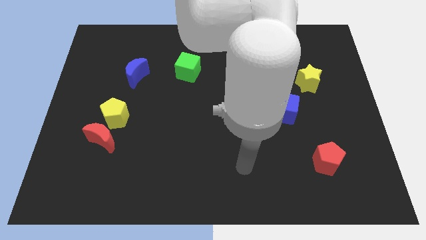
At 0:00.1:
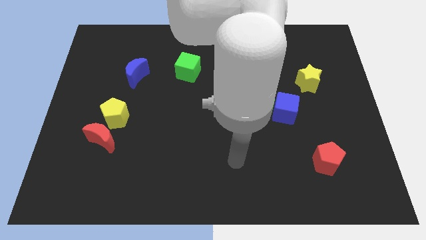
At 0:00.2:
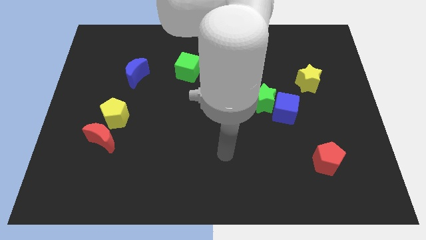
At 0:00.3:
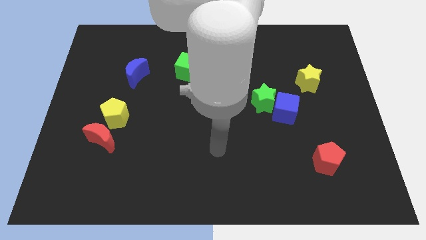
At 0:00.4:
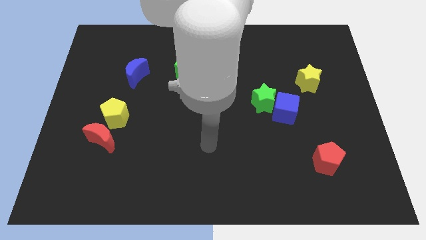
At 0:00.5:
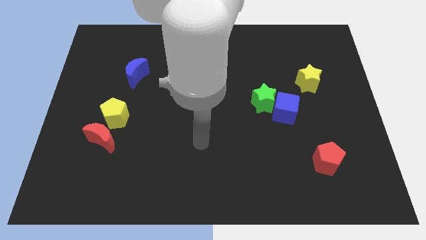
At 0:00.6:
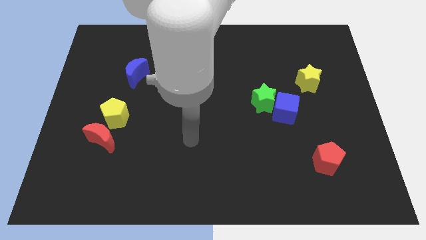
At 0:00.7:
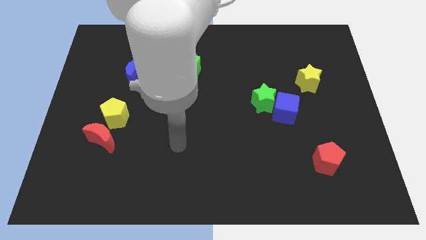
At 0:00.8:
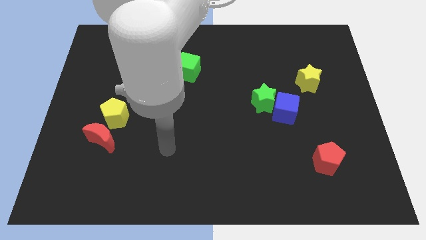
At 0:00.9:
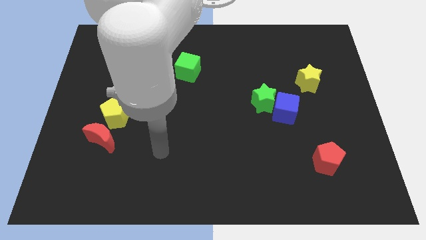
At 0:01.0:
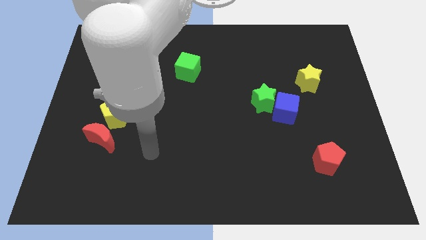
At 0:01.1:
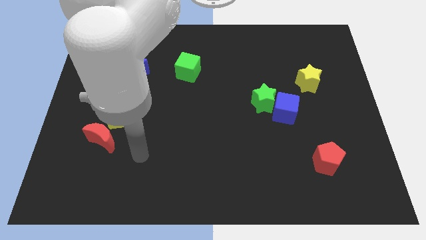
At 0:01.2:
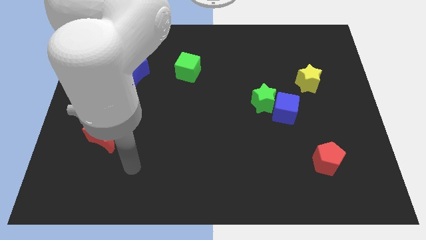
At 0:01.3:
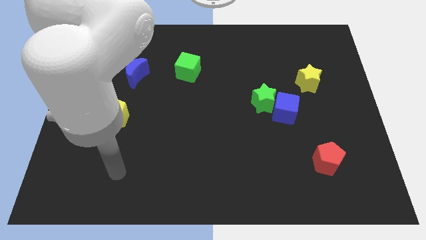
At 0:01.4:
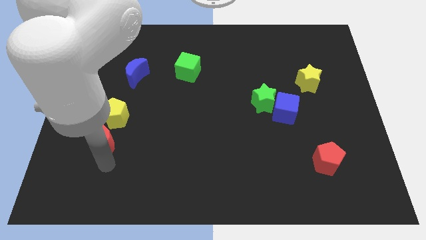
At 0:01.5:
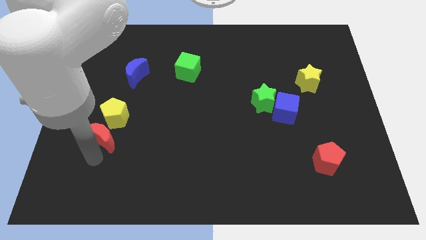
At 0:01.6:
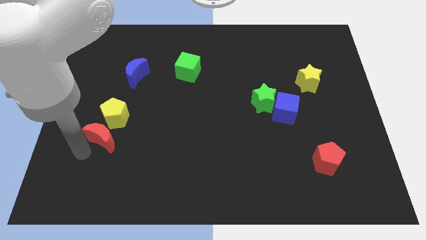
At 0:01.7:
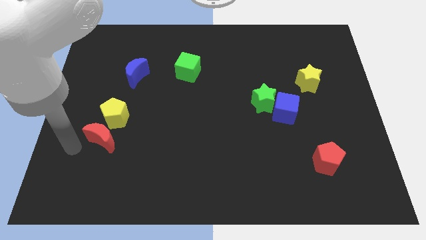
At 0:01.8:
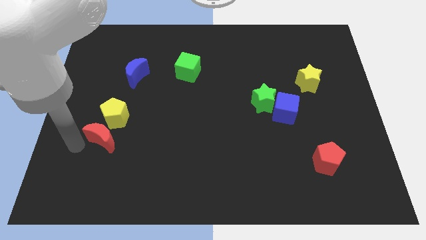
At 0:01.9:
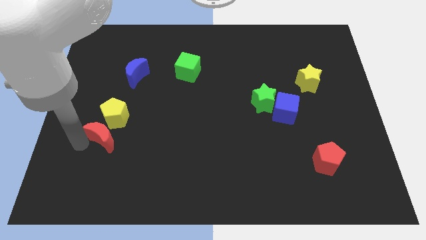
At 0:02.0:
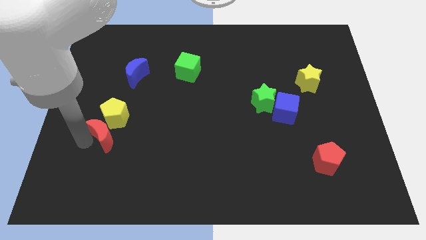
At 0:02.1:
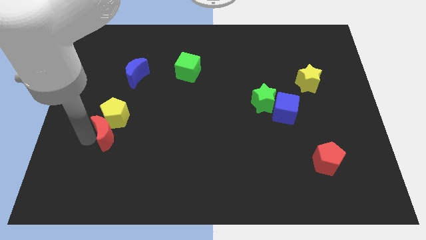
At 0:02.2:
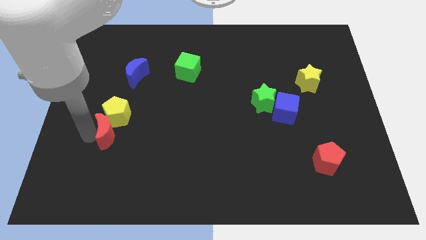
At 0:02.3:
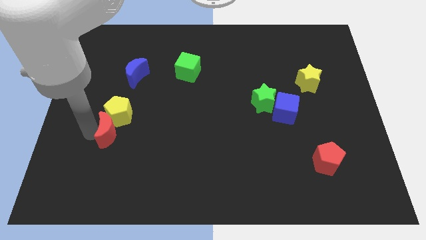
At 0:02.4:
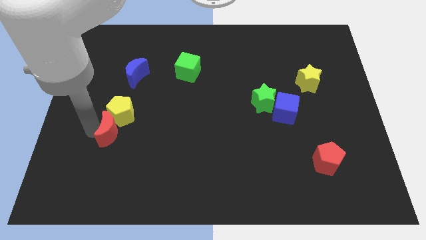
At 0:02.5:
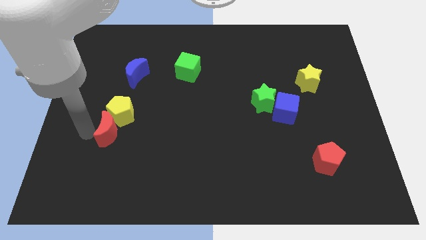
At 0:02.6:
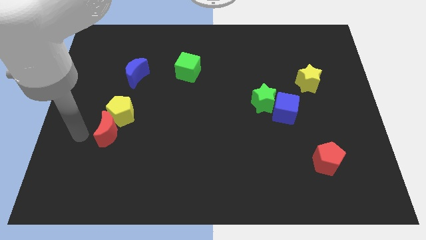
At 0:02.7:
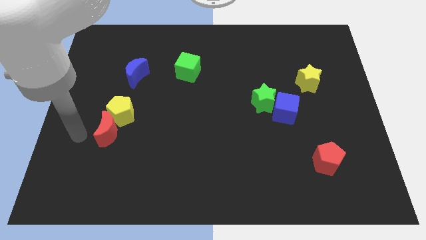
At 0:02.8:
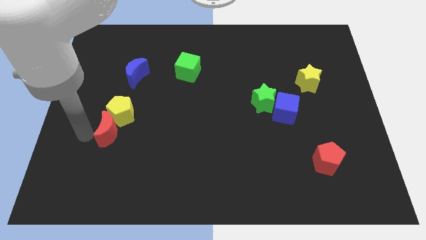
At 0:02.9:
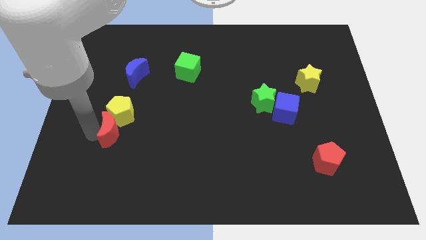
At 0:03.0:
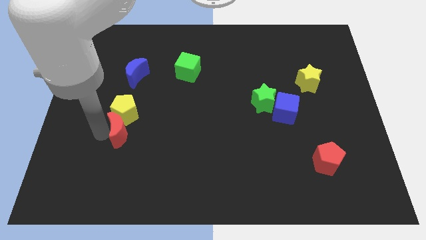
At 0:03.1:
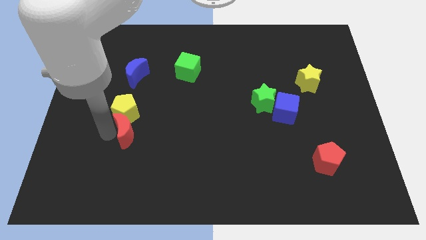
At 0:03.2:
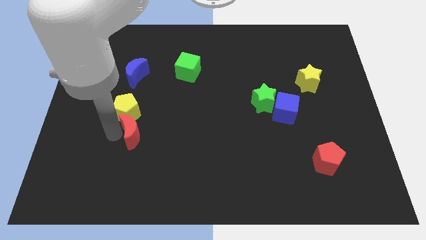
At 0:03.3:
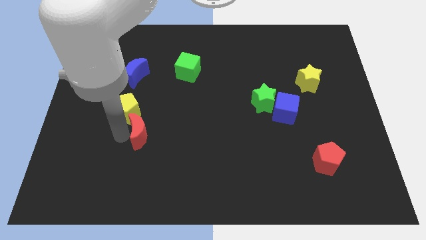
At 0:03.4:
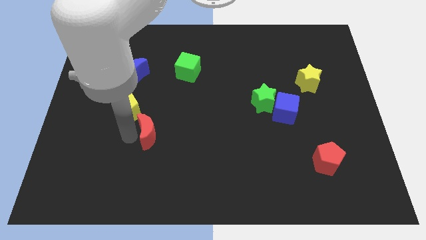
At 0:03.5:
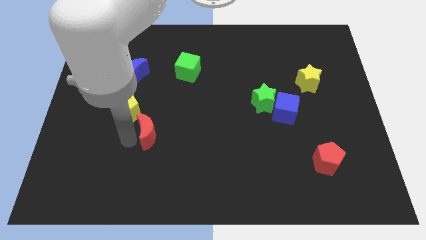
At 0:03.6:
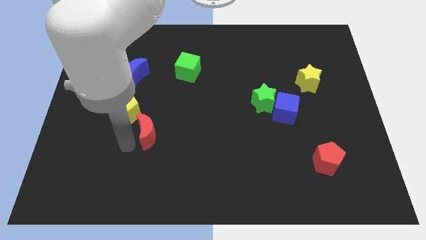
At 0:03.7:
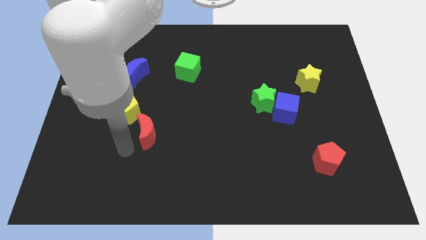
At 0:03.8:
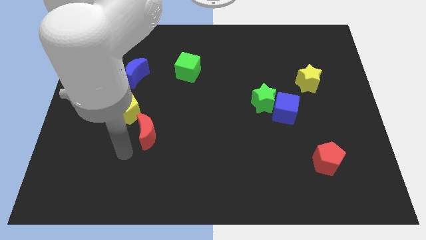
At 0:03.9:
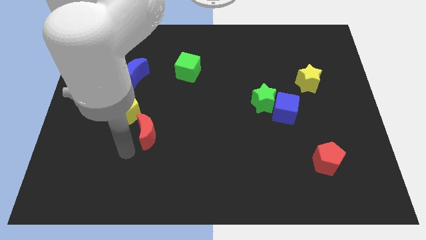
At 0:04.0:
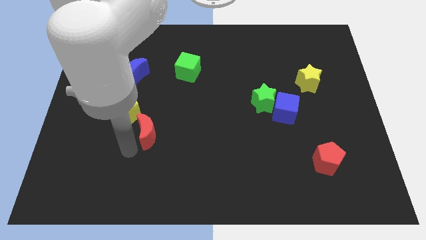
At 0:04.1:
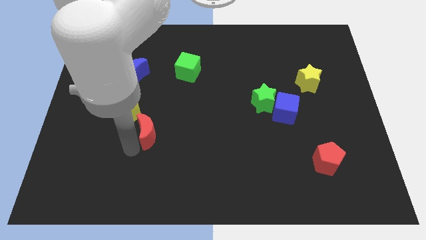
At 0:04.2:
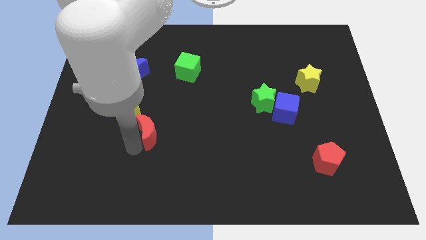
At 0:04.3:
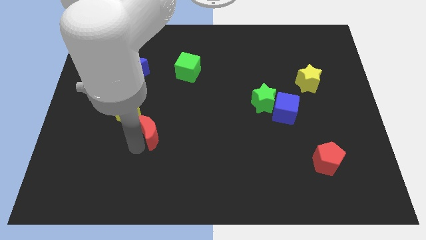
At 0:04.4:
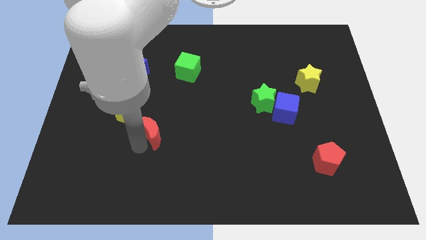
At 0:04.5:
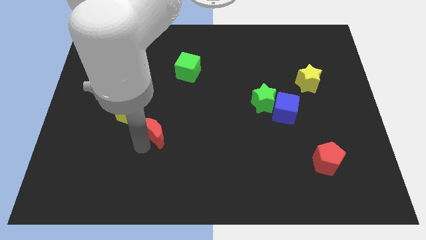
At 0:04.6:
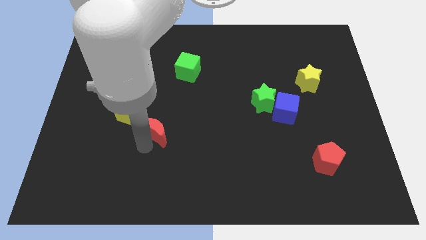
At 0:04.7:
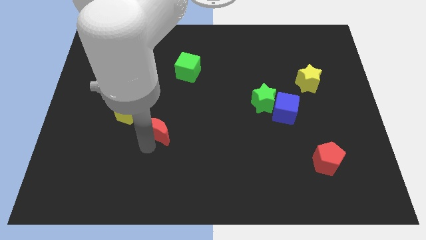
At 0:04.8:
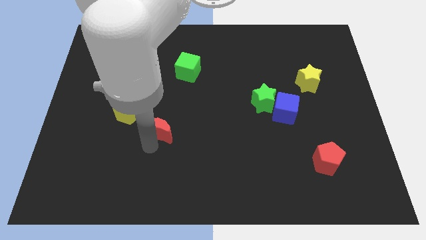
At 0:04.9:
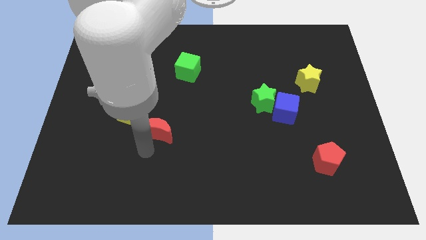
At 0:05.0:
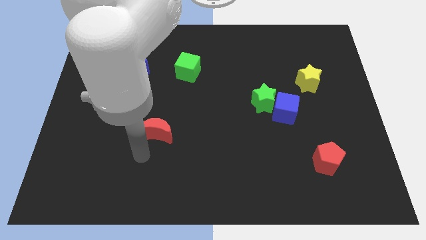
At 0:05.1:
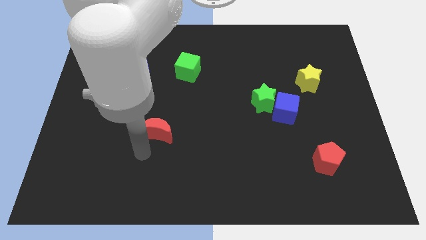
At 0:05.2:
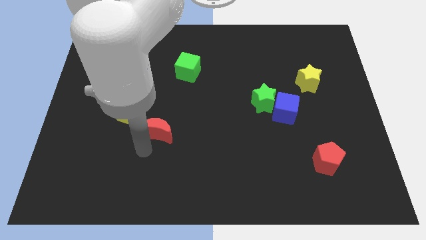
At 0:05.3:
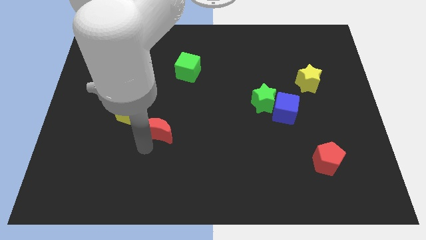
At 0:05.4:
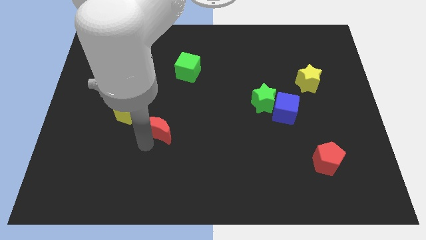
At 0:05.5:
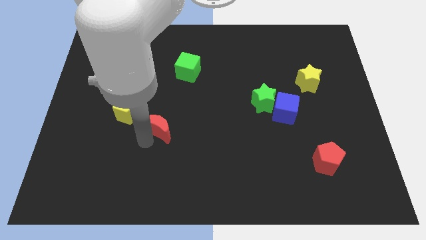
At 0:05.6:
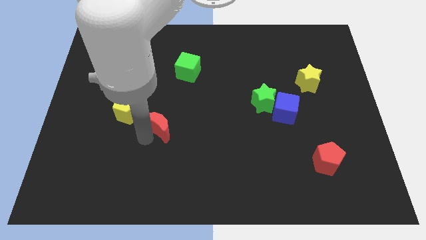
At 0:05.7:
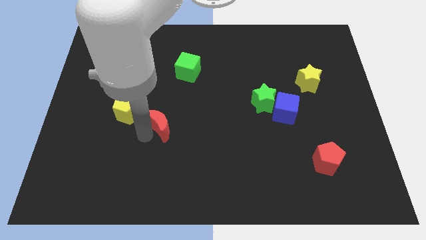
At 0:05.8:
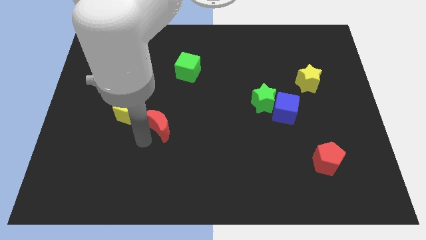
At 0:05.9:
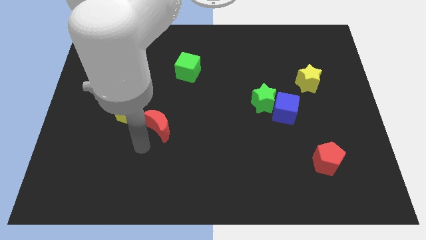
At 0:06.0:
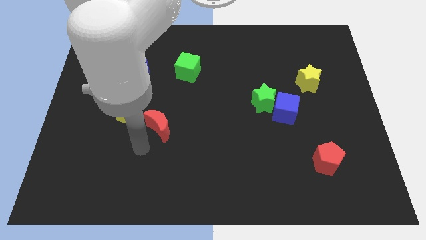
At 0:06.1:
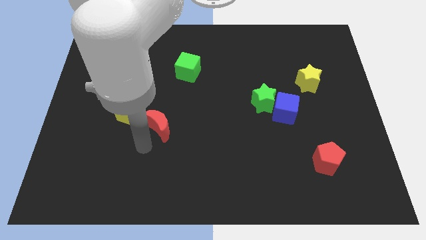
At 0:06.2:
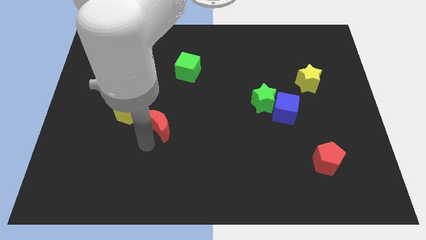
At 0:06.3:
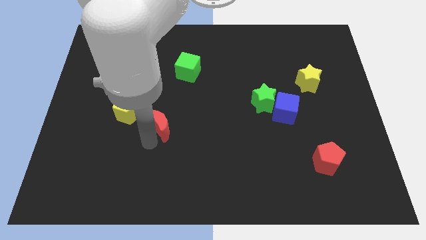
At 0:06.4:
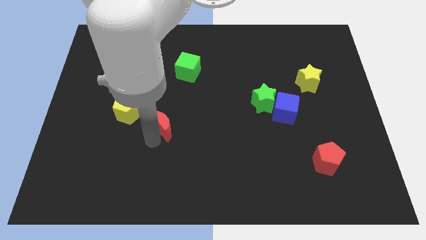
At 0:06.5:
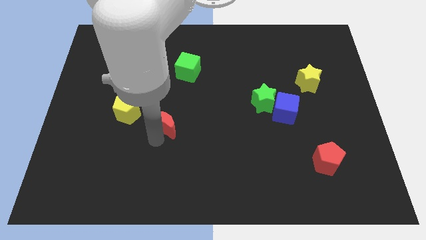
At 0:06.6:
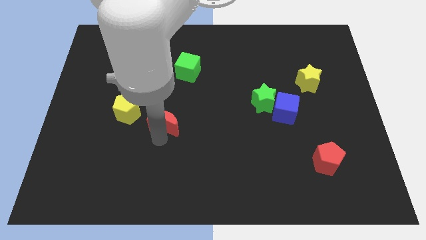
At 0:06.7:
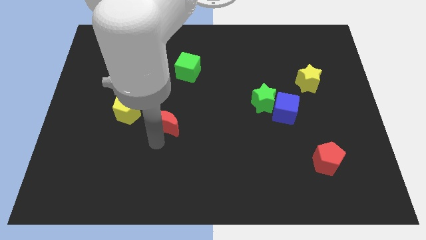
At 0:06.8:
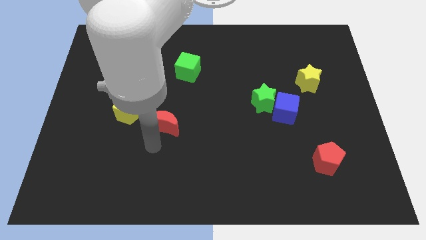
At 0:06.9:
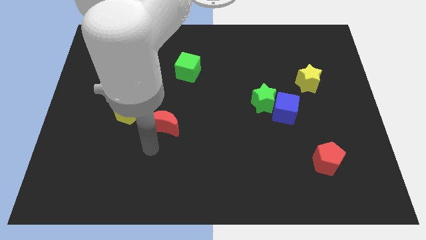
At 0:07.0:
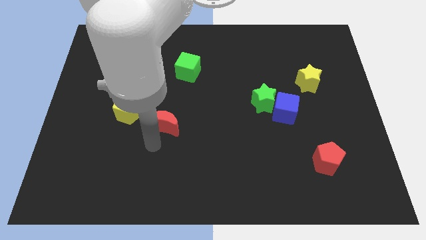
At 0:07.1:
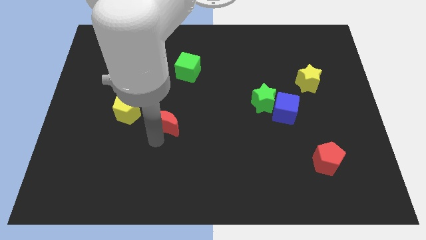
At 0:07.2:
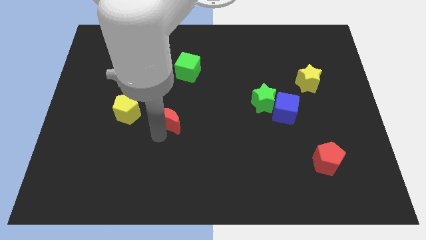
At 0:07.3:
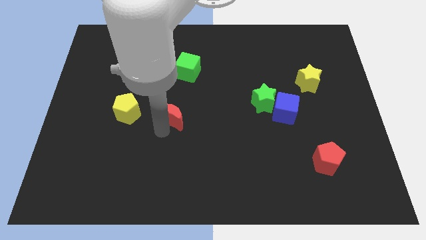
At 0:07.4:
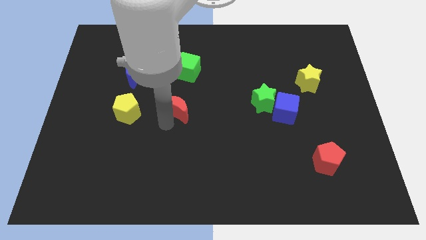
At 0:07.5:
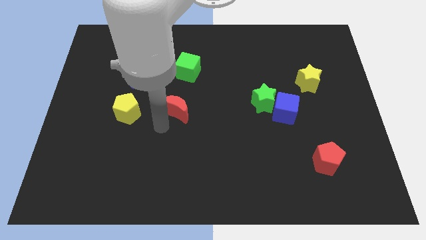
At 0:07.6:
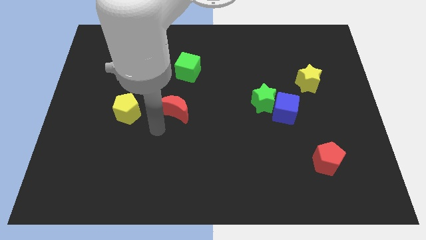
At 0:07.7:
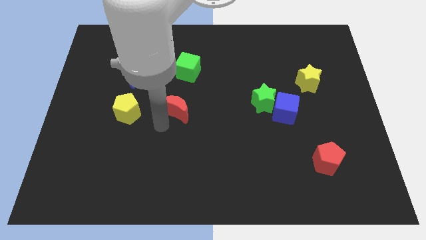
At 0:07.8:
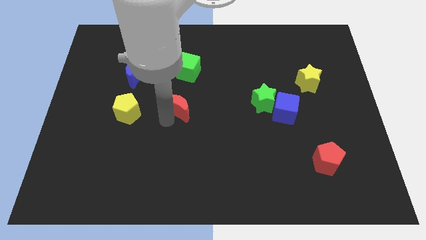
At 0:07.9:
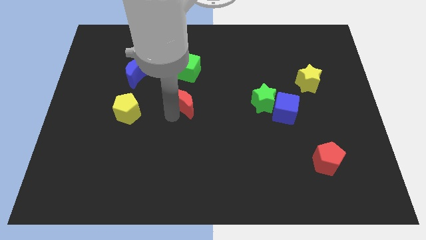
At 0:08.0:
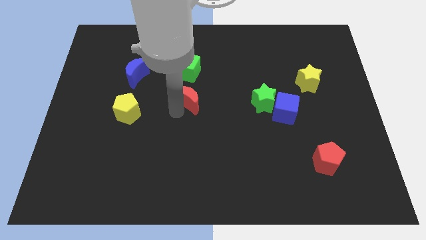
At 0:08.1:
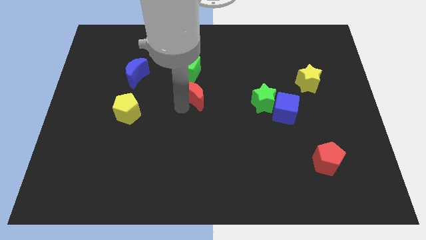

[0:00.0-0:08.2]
push the red moon diagonally down and to the right of the green cube

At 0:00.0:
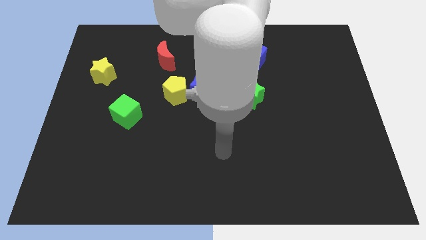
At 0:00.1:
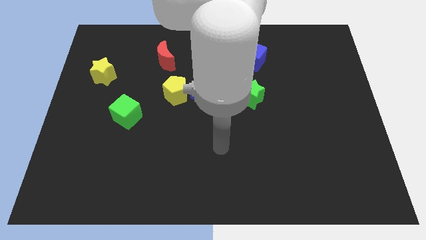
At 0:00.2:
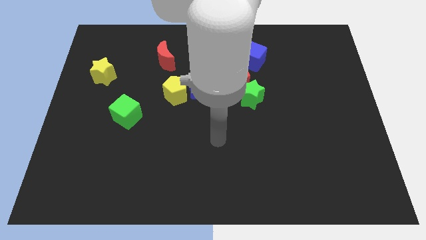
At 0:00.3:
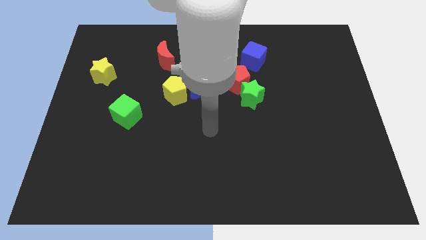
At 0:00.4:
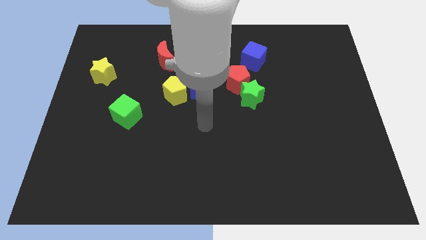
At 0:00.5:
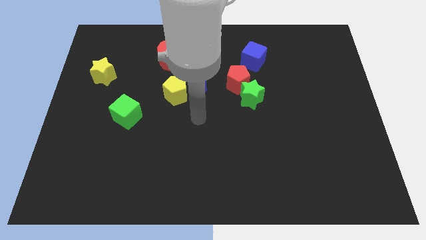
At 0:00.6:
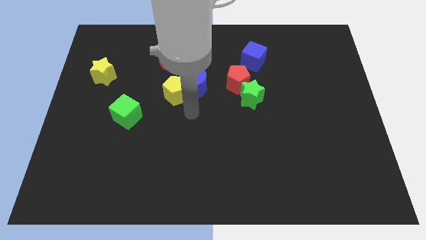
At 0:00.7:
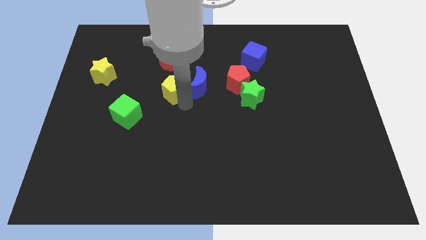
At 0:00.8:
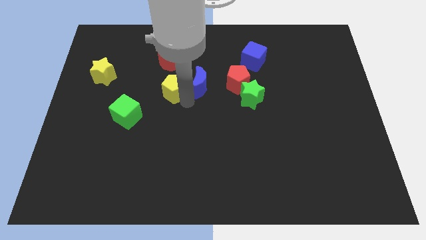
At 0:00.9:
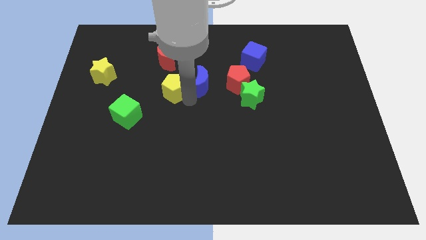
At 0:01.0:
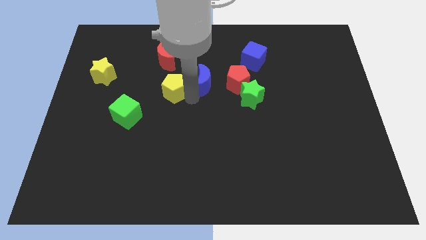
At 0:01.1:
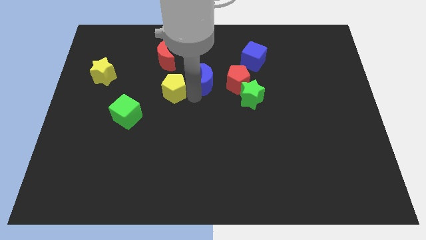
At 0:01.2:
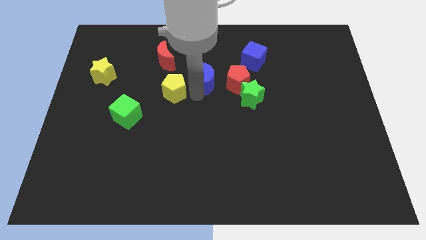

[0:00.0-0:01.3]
move the blue moon to the top left of the red pentagon
